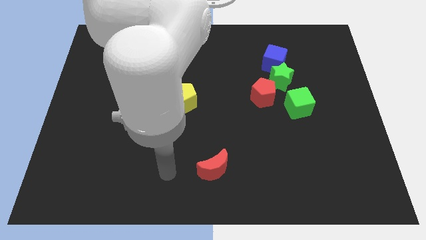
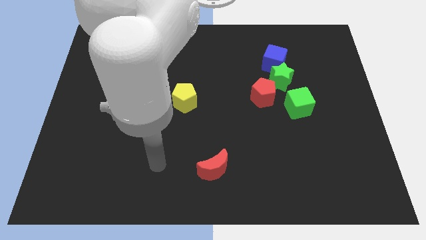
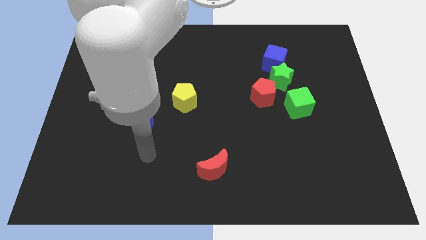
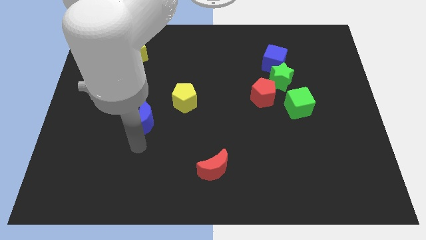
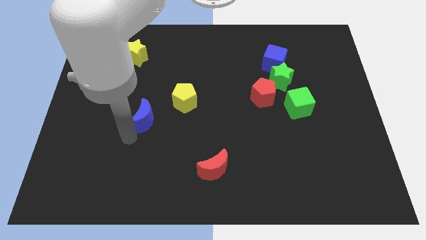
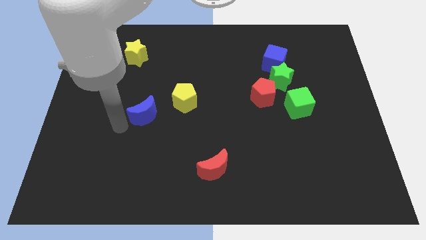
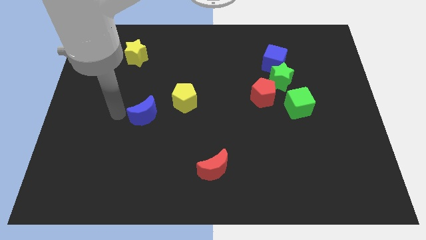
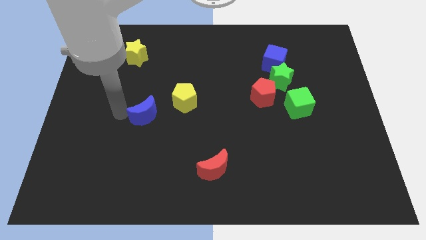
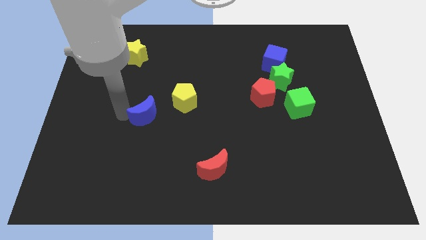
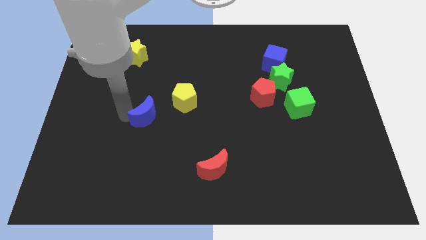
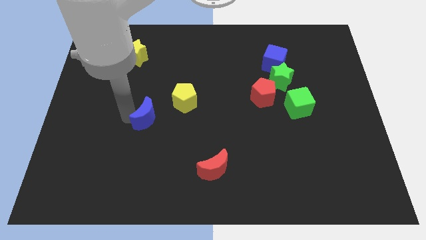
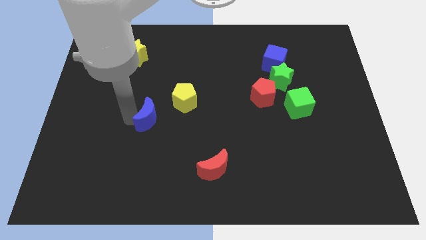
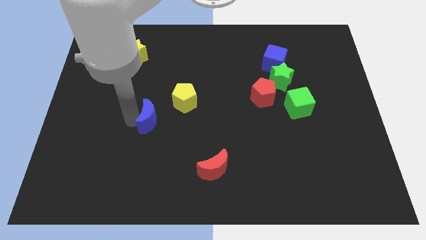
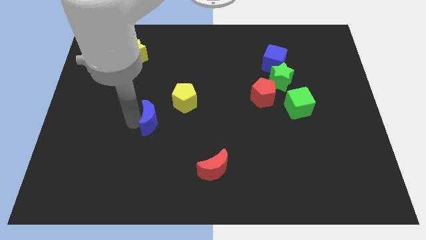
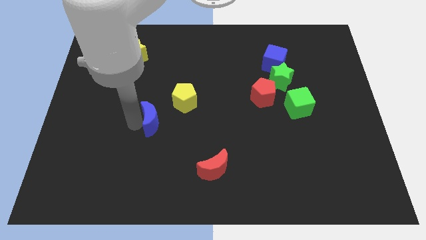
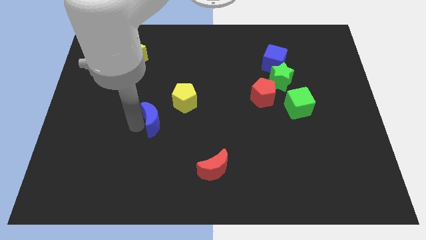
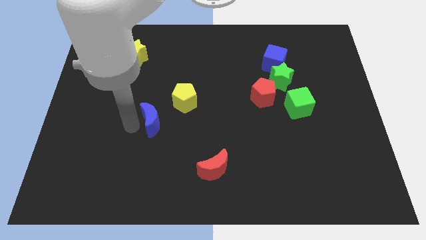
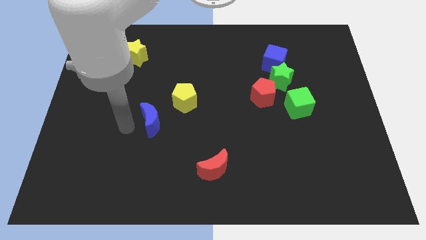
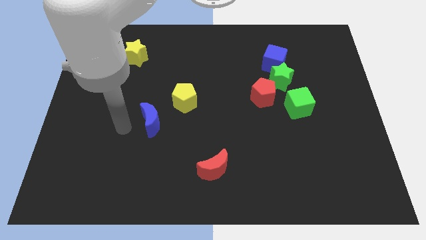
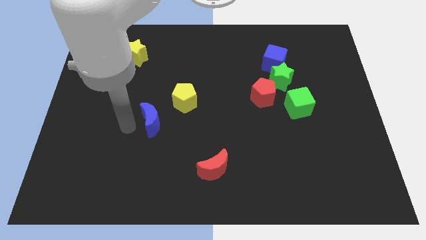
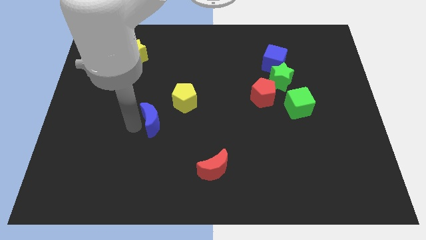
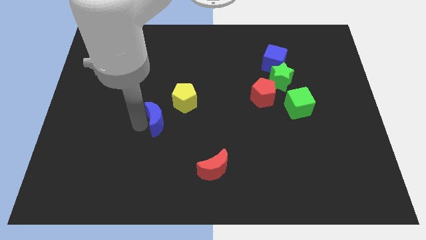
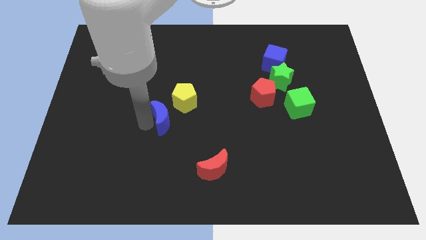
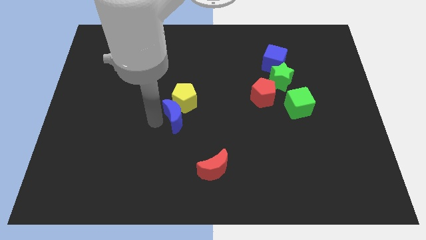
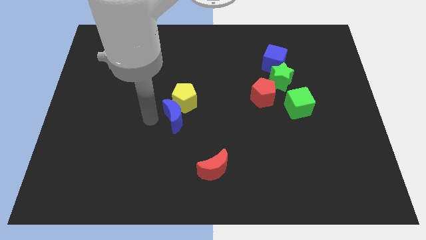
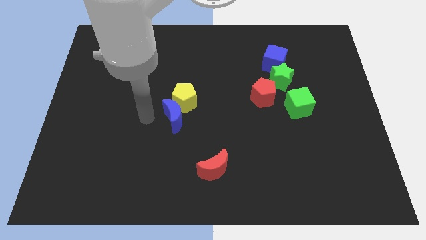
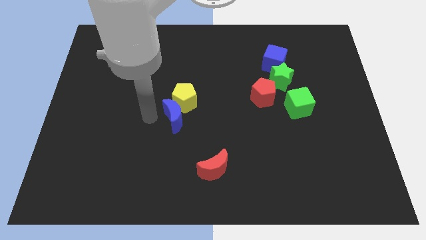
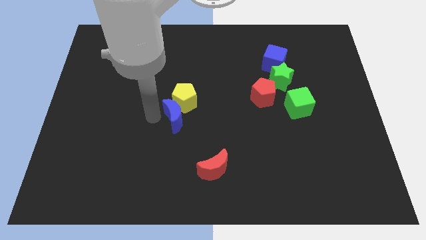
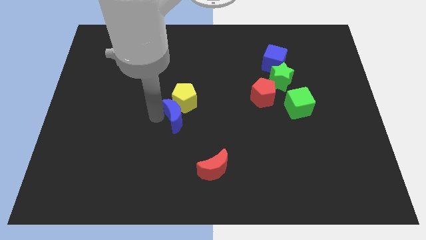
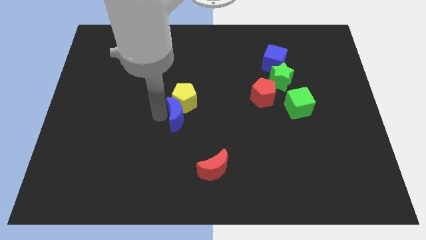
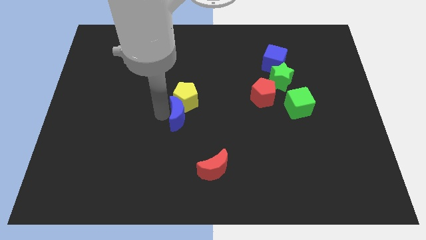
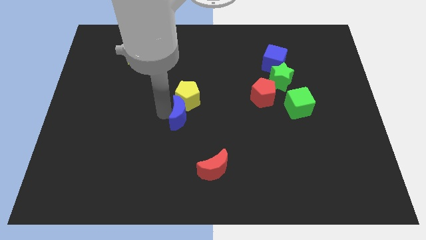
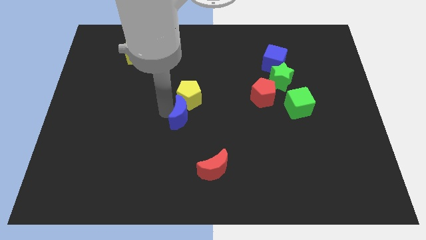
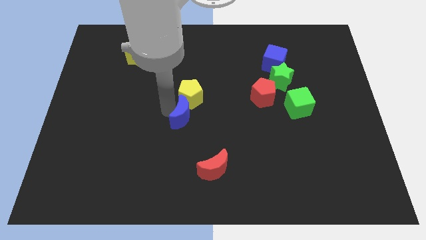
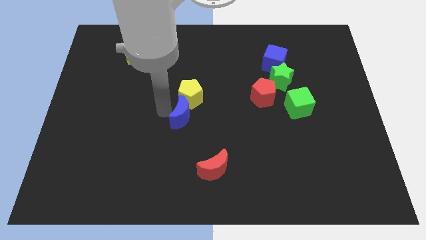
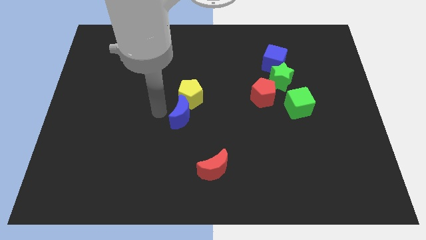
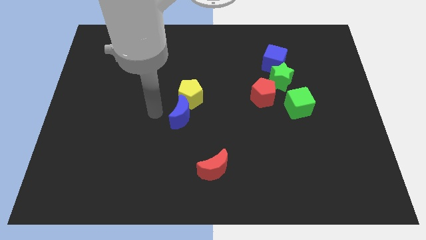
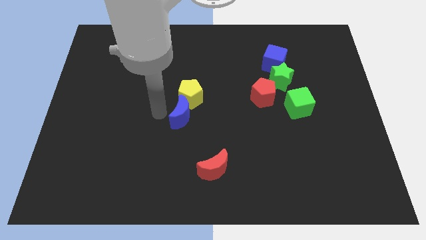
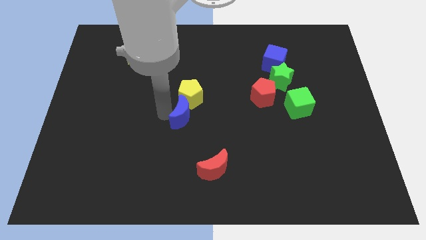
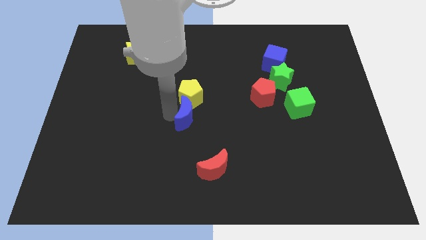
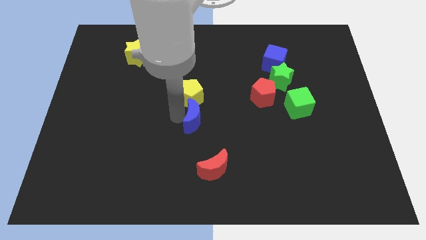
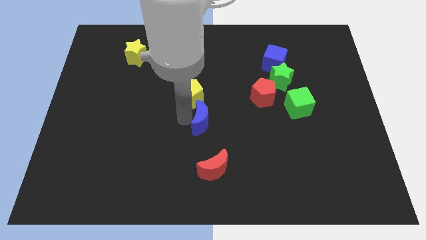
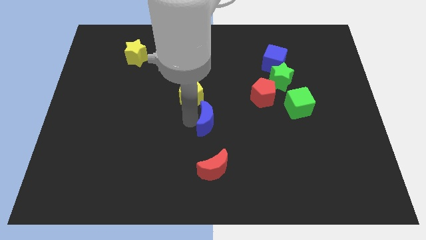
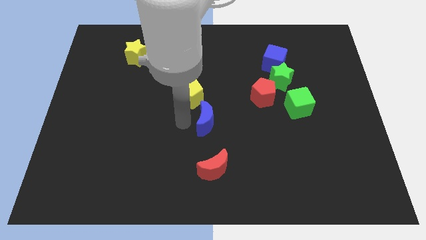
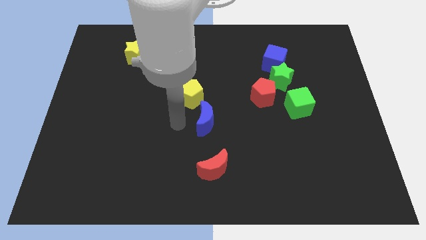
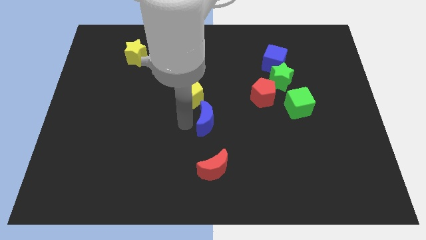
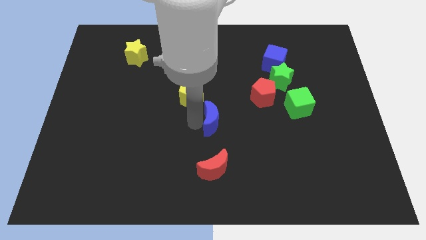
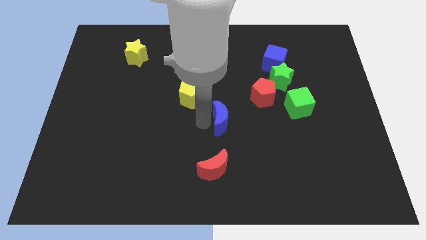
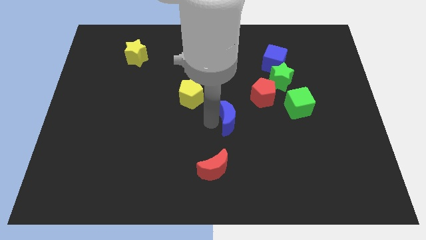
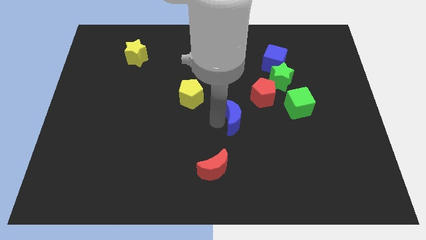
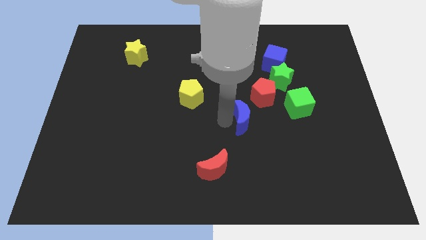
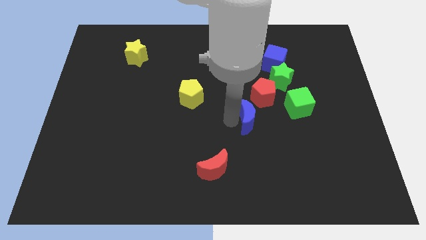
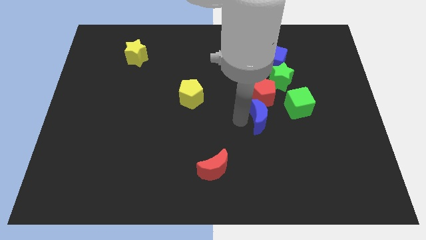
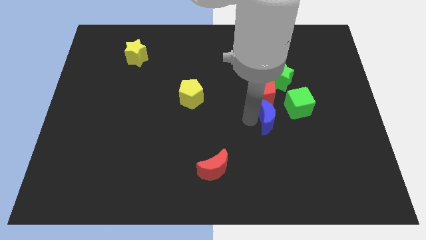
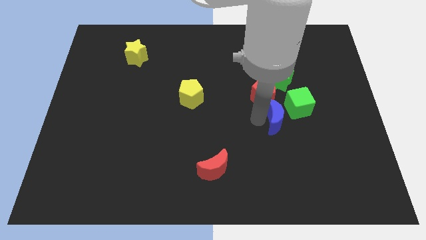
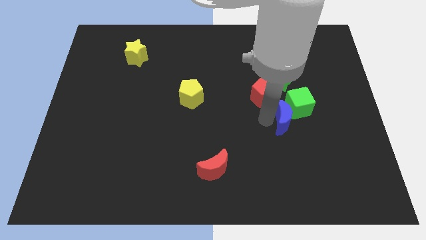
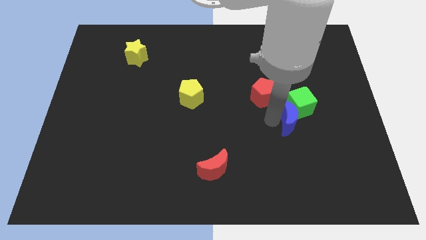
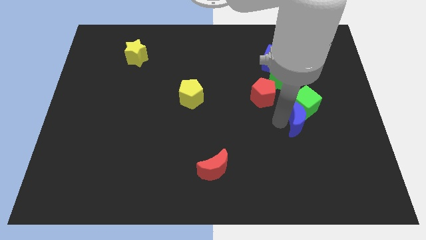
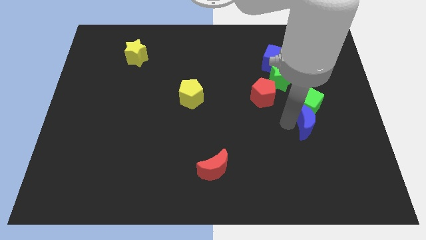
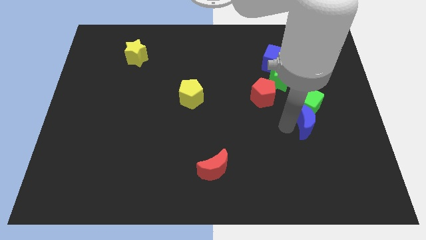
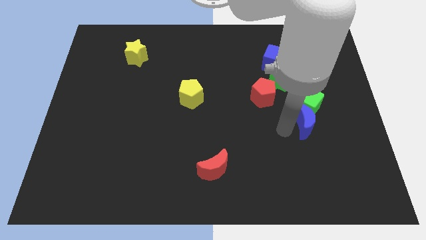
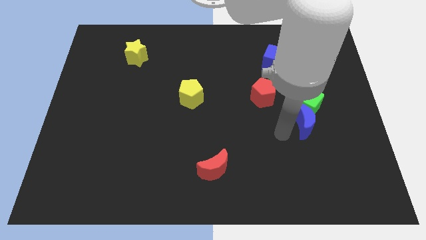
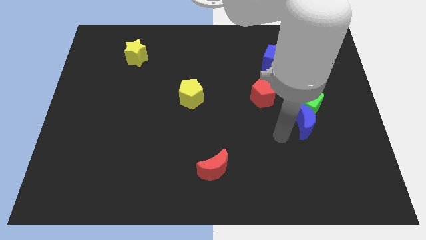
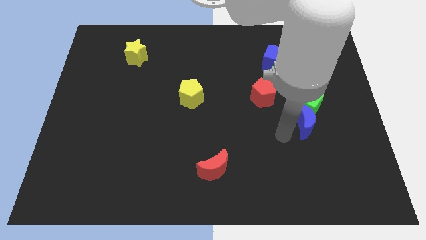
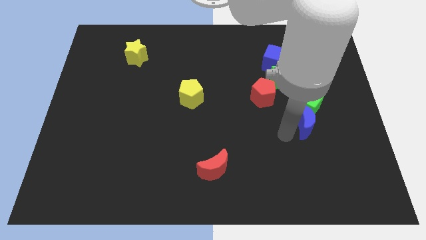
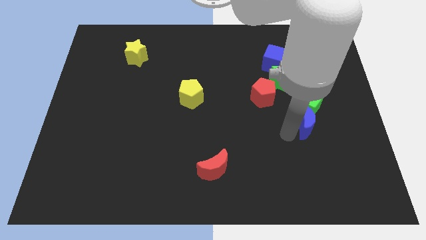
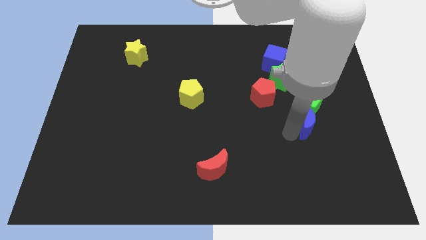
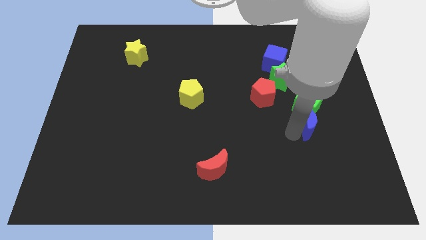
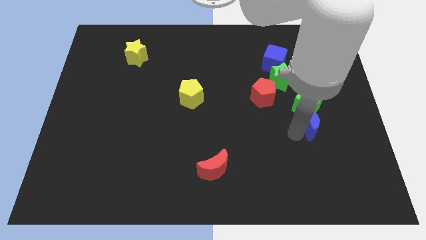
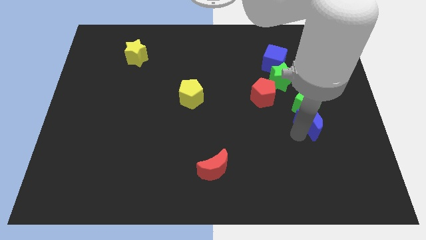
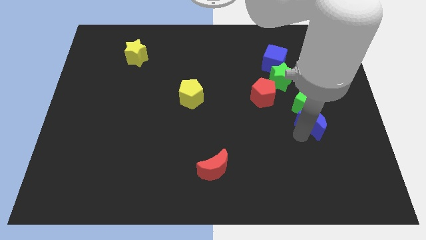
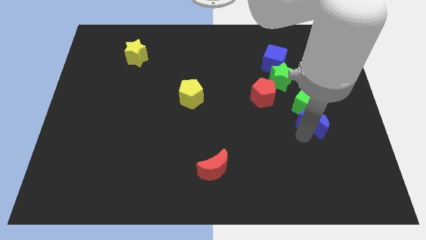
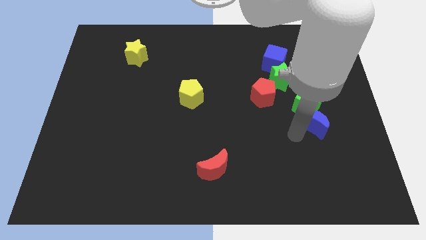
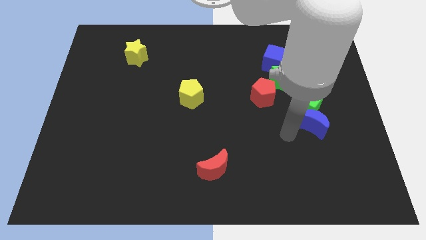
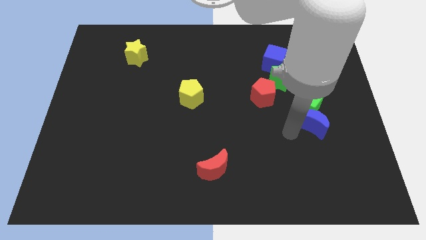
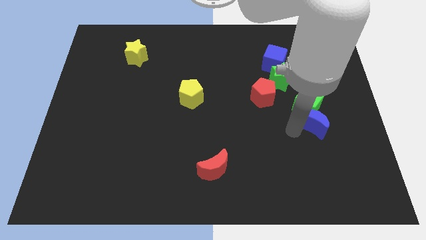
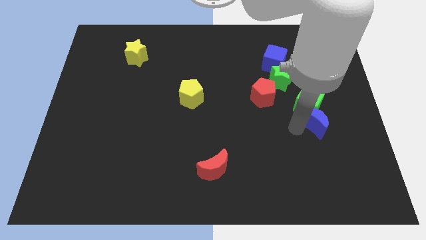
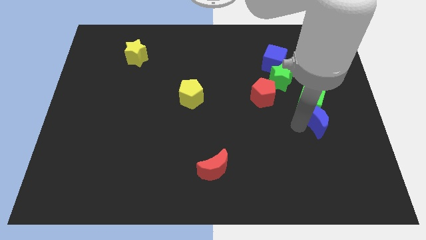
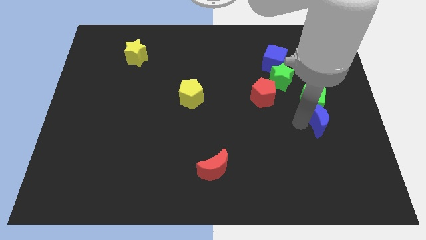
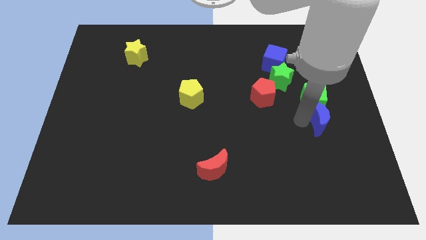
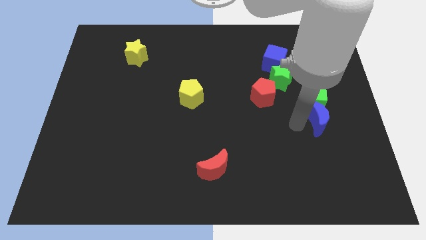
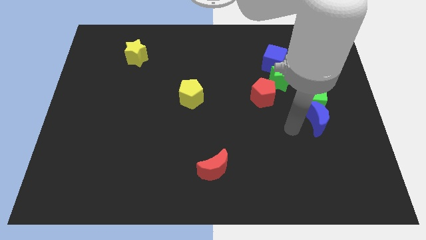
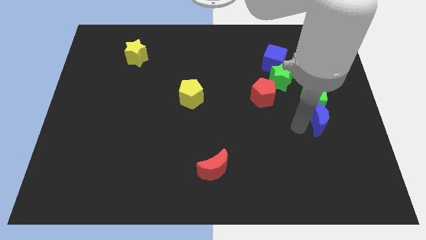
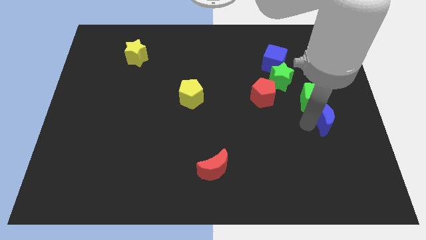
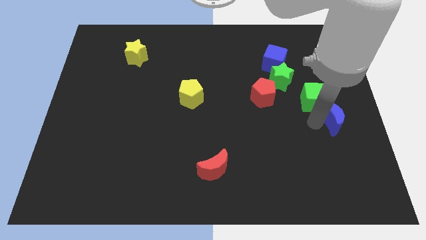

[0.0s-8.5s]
push the blue moon to the right side of the board
